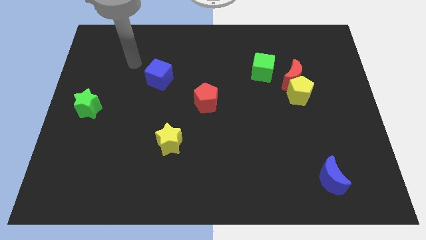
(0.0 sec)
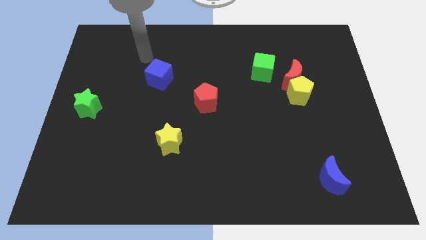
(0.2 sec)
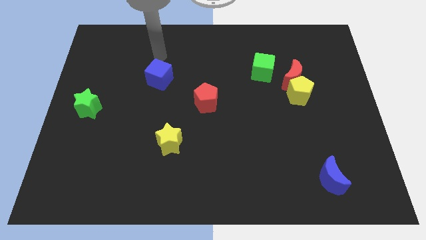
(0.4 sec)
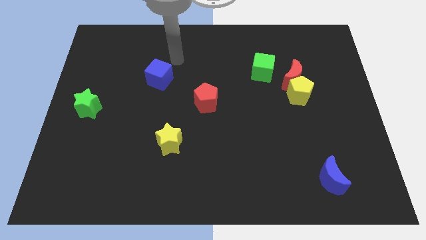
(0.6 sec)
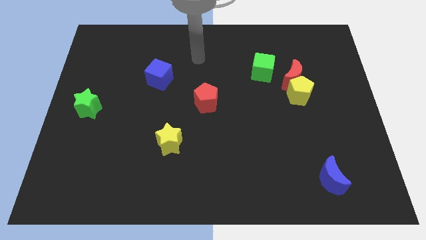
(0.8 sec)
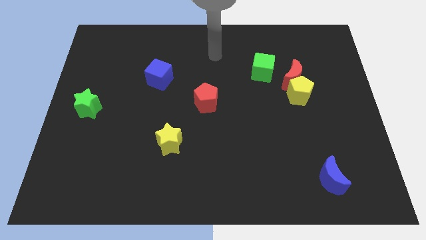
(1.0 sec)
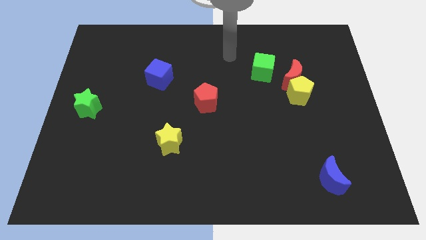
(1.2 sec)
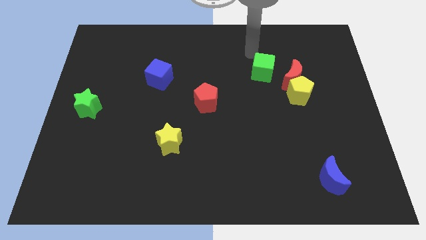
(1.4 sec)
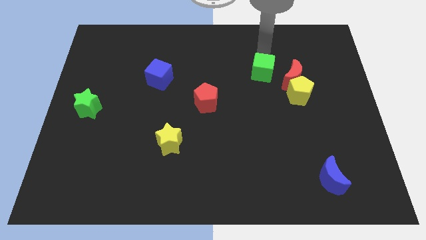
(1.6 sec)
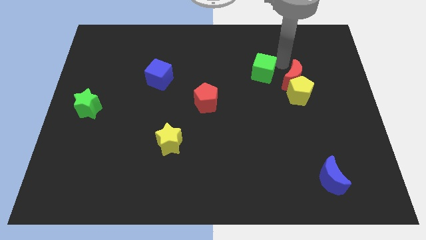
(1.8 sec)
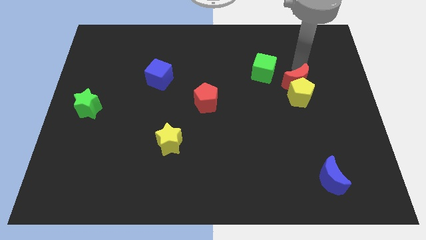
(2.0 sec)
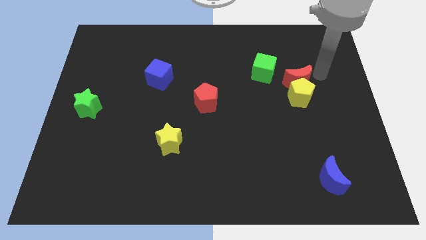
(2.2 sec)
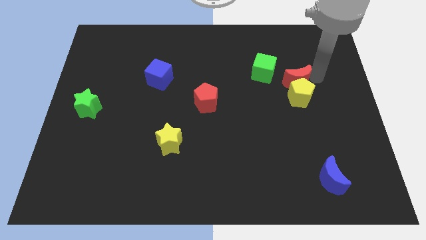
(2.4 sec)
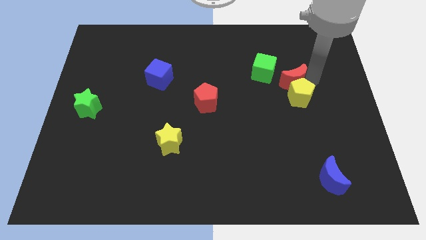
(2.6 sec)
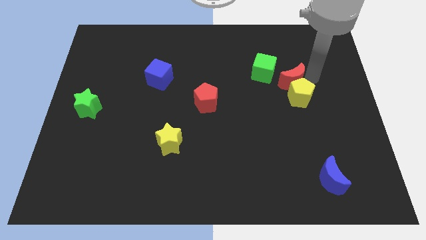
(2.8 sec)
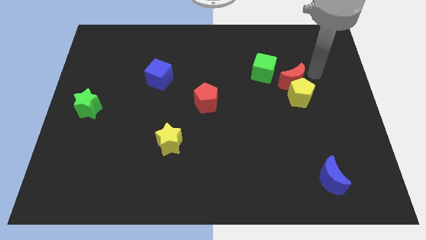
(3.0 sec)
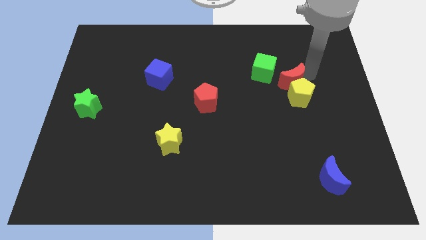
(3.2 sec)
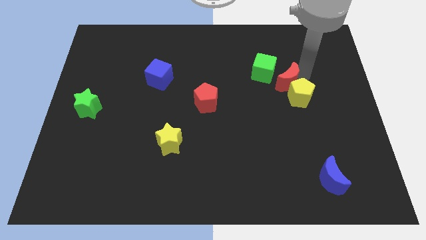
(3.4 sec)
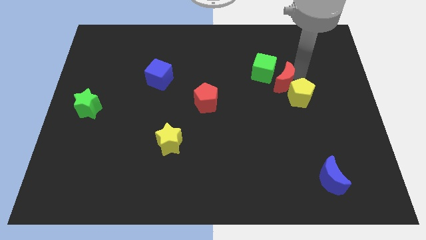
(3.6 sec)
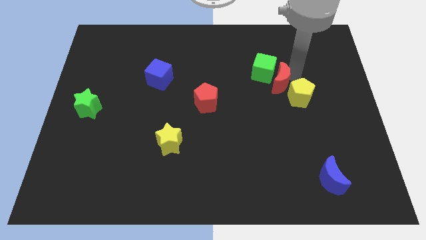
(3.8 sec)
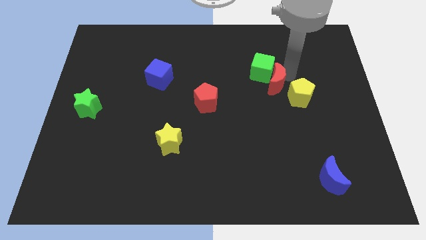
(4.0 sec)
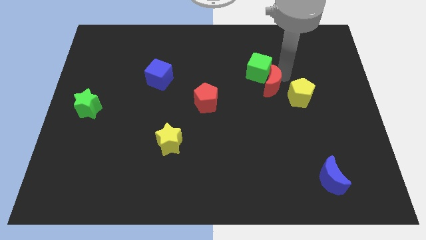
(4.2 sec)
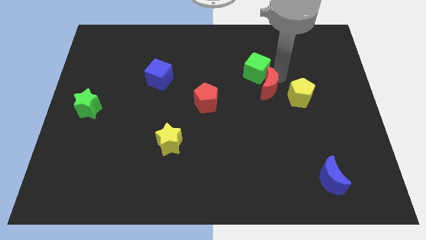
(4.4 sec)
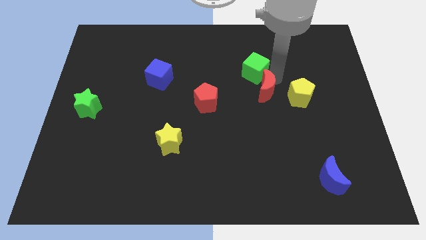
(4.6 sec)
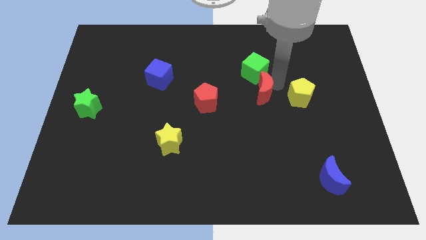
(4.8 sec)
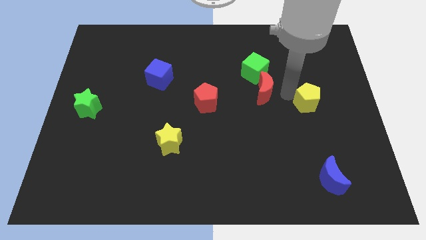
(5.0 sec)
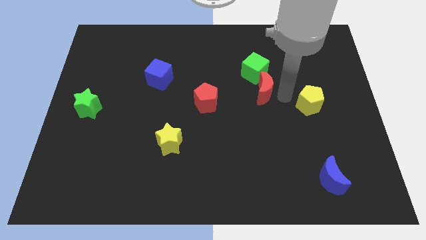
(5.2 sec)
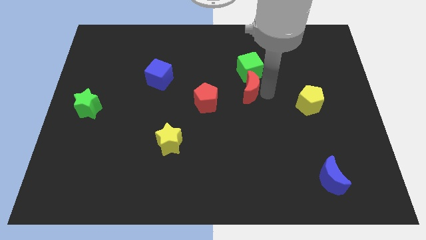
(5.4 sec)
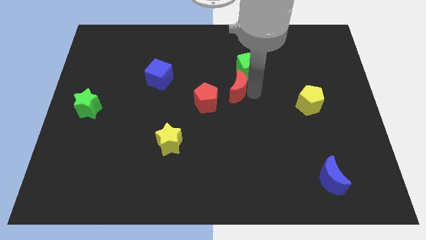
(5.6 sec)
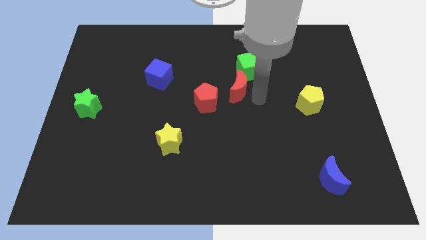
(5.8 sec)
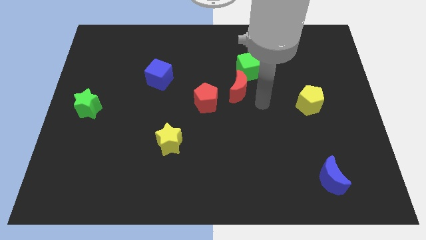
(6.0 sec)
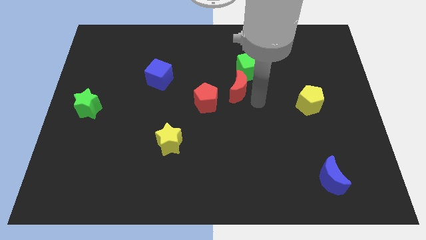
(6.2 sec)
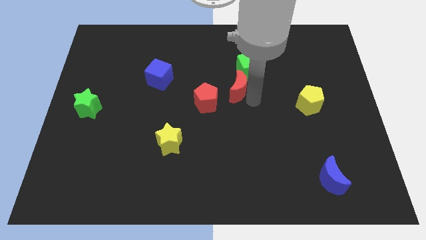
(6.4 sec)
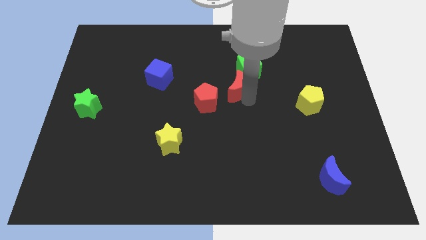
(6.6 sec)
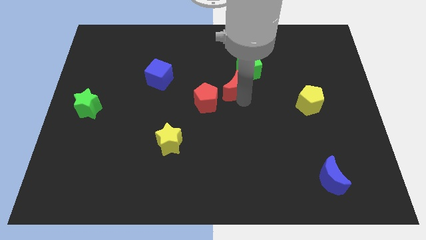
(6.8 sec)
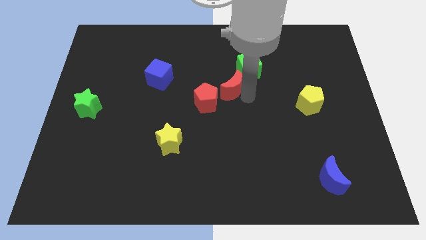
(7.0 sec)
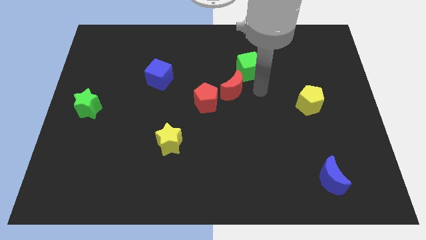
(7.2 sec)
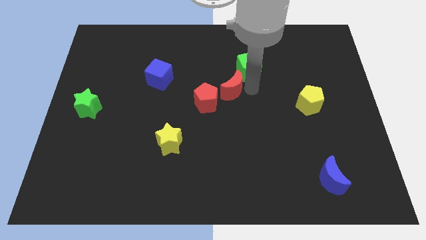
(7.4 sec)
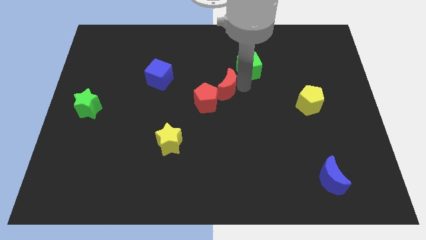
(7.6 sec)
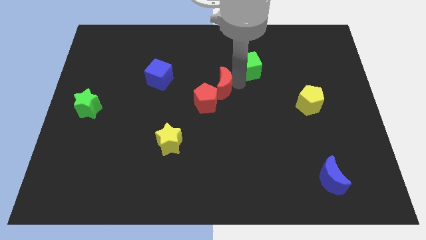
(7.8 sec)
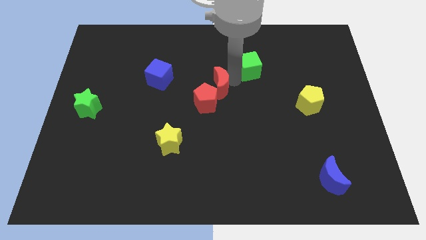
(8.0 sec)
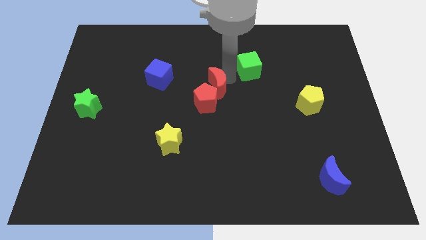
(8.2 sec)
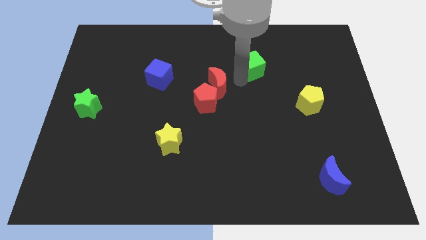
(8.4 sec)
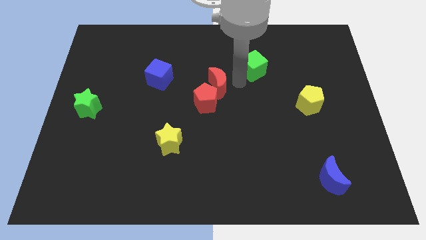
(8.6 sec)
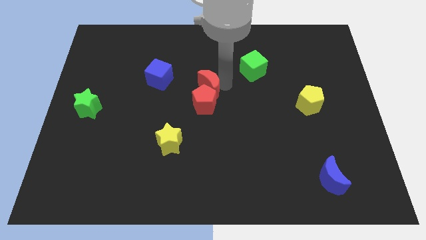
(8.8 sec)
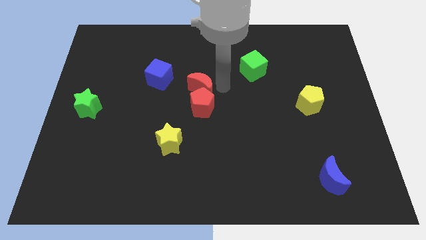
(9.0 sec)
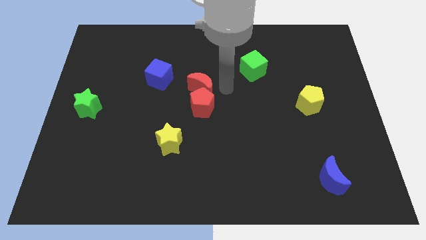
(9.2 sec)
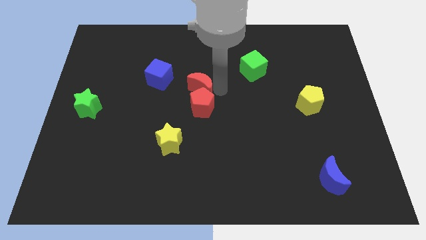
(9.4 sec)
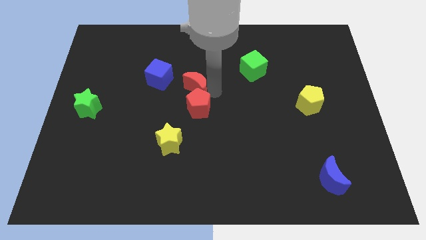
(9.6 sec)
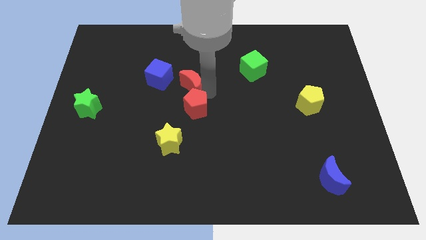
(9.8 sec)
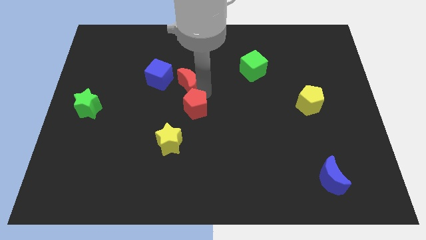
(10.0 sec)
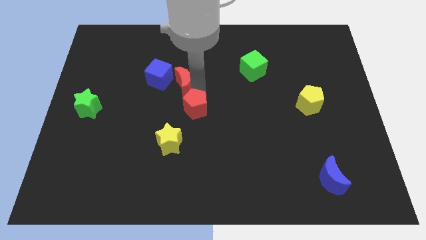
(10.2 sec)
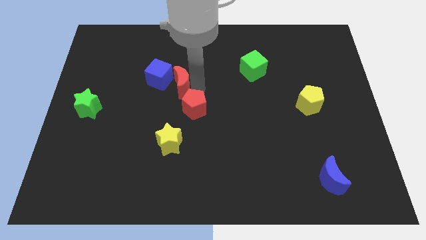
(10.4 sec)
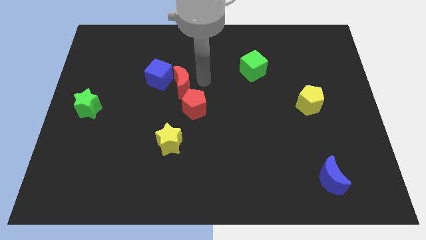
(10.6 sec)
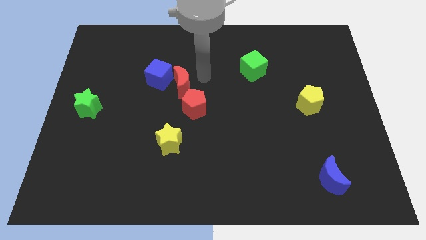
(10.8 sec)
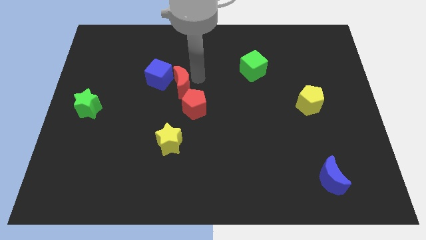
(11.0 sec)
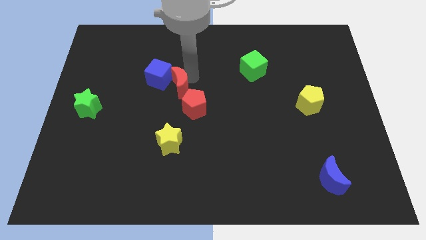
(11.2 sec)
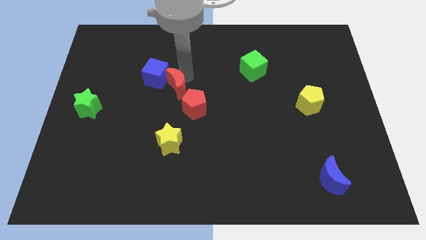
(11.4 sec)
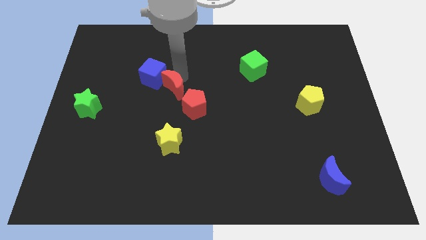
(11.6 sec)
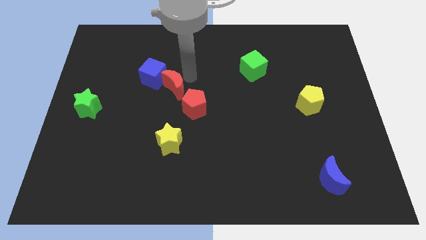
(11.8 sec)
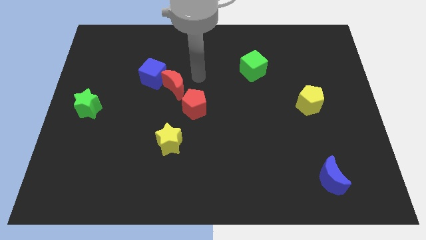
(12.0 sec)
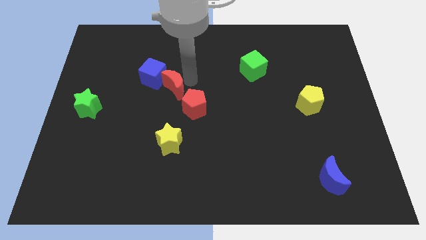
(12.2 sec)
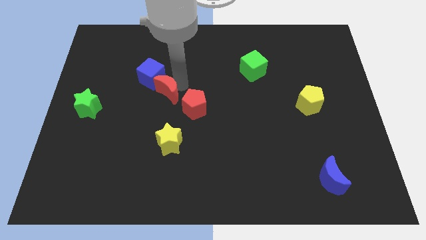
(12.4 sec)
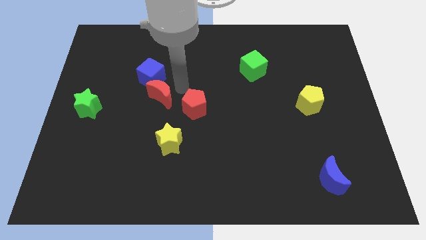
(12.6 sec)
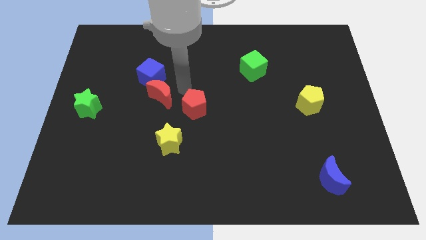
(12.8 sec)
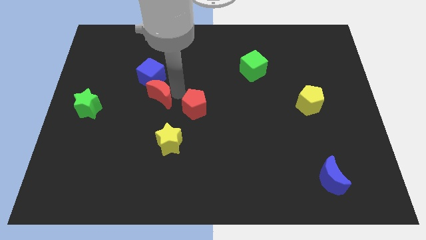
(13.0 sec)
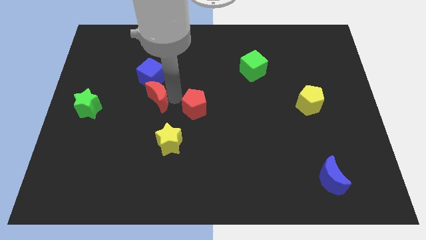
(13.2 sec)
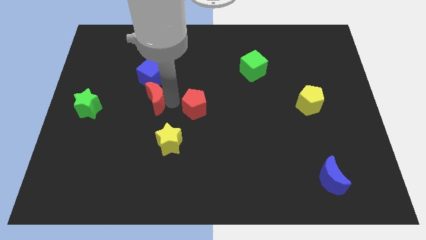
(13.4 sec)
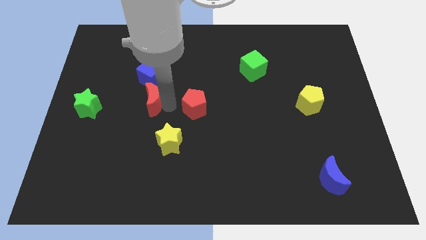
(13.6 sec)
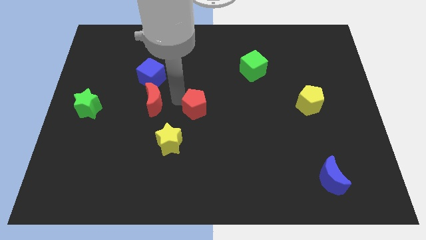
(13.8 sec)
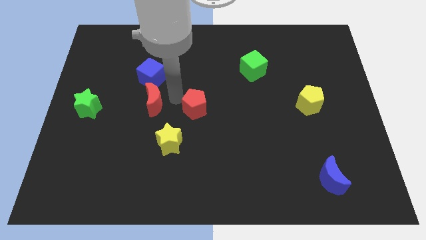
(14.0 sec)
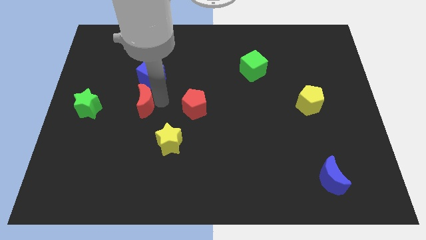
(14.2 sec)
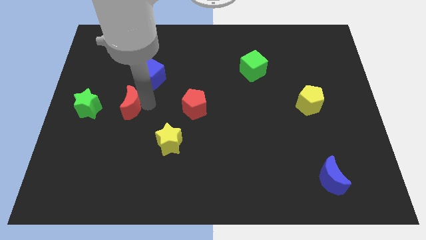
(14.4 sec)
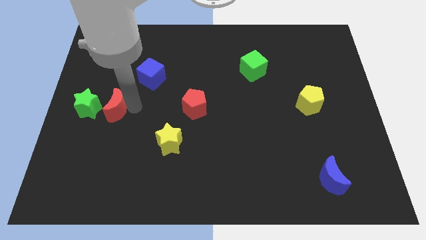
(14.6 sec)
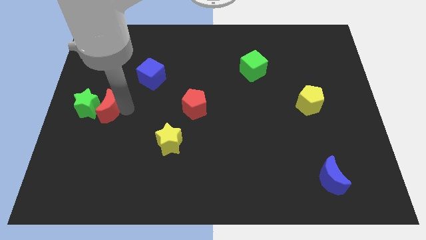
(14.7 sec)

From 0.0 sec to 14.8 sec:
put the red moon next to the green star
